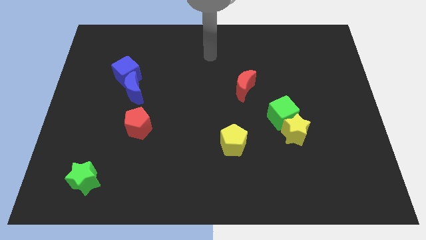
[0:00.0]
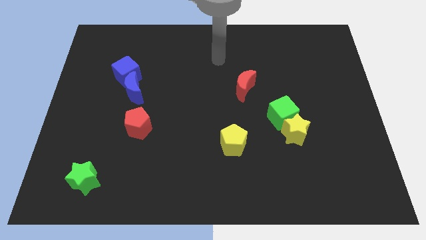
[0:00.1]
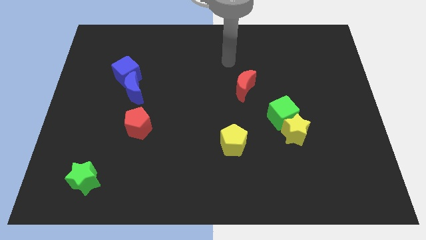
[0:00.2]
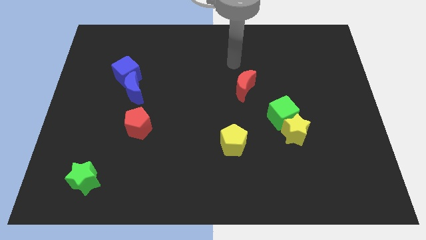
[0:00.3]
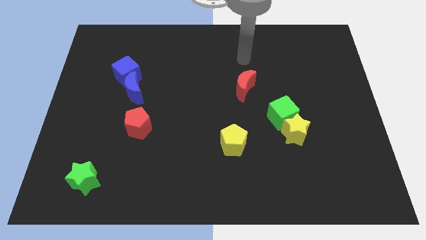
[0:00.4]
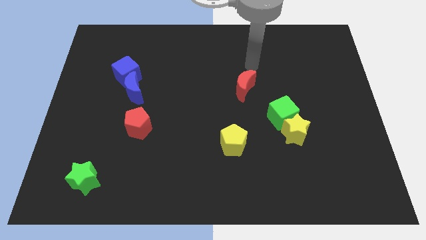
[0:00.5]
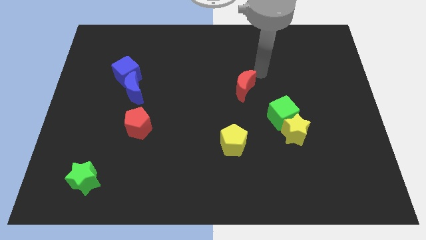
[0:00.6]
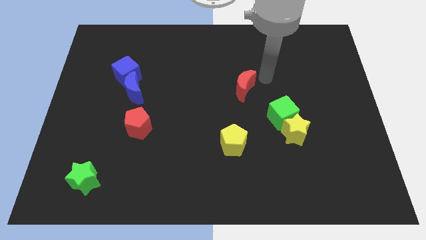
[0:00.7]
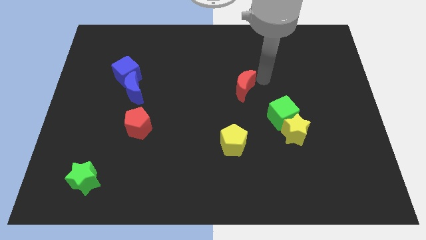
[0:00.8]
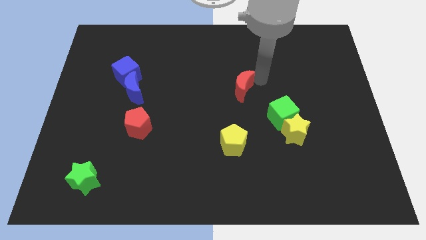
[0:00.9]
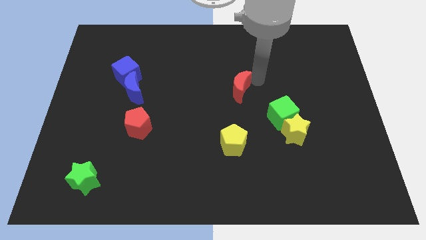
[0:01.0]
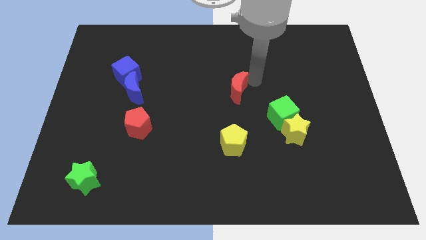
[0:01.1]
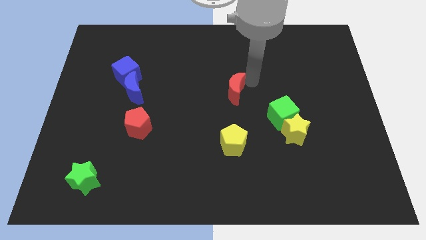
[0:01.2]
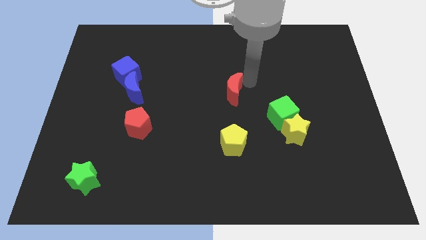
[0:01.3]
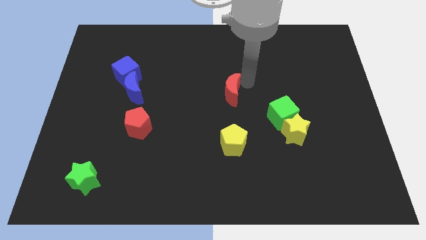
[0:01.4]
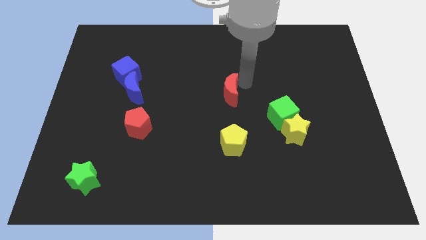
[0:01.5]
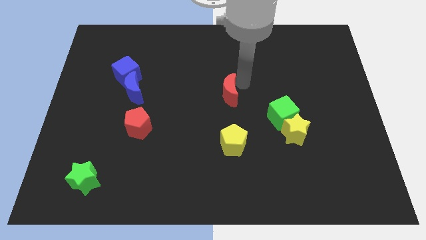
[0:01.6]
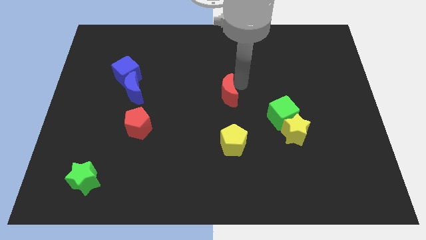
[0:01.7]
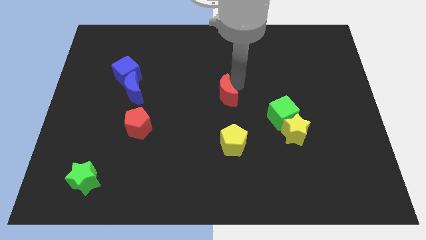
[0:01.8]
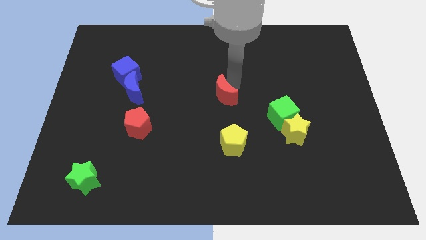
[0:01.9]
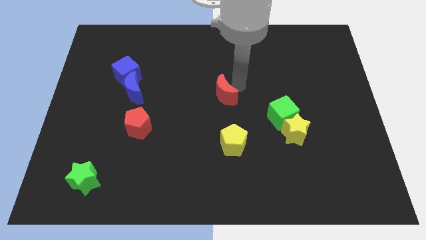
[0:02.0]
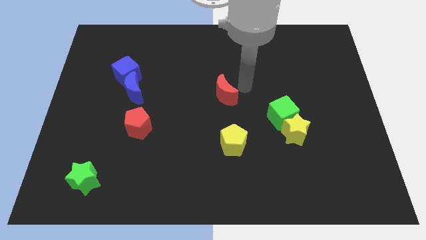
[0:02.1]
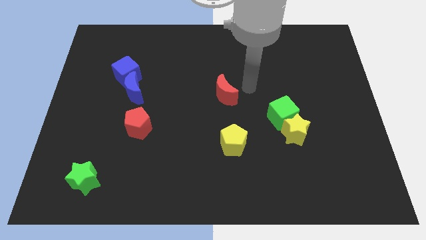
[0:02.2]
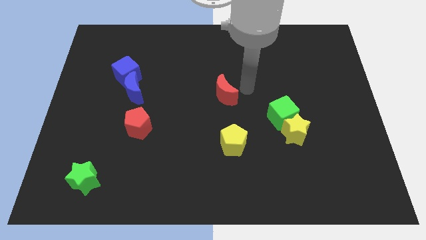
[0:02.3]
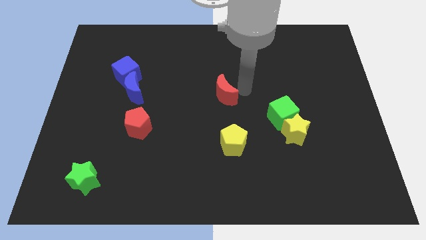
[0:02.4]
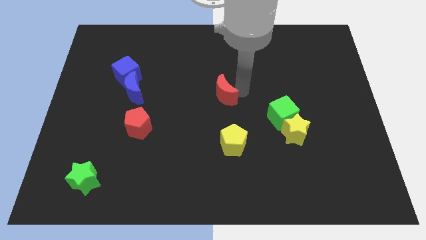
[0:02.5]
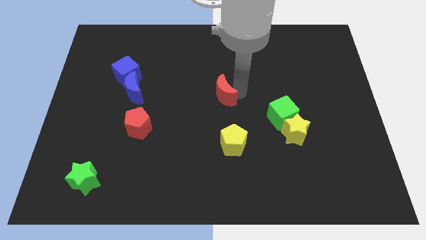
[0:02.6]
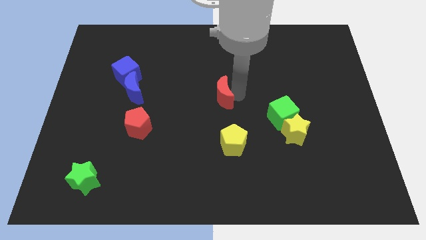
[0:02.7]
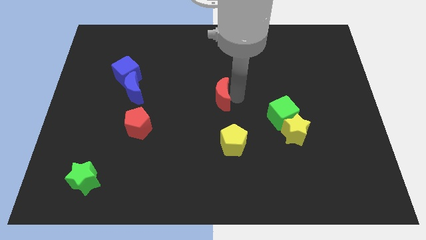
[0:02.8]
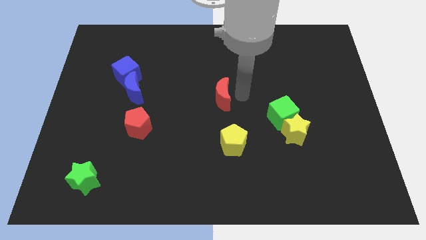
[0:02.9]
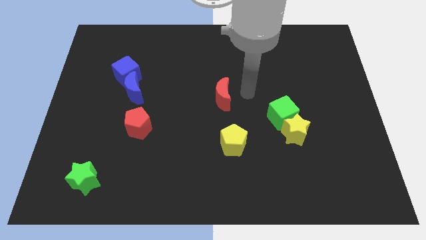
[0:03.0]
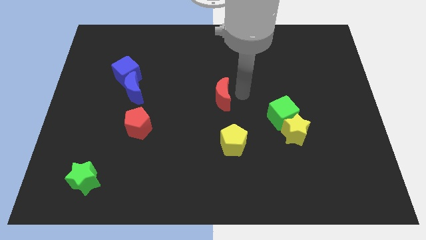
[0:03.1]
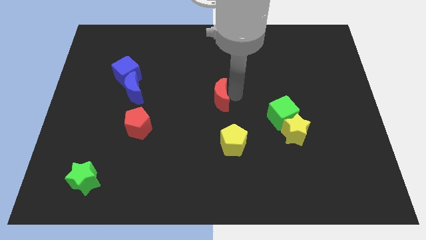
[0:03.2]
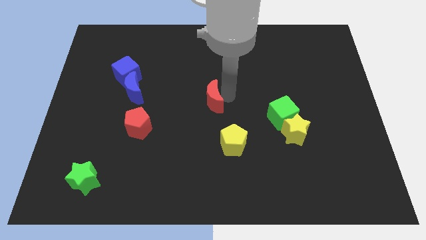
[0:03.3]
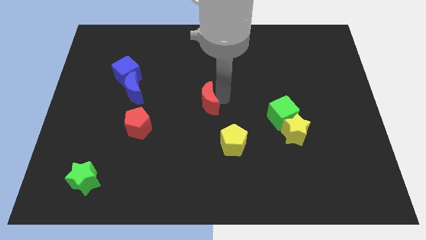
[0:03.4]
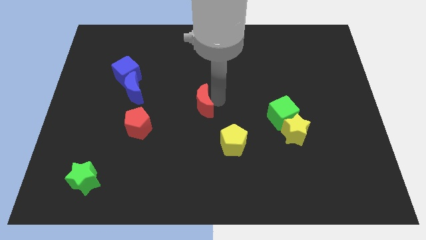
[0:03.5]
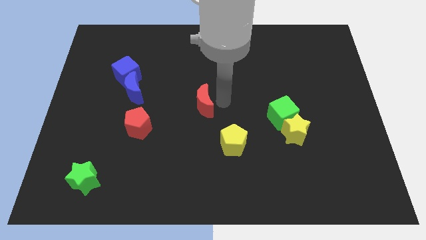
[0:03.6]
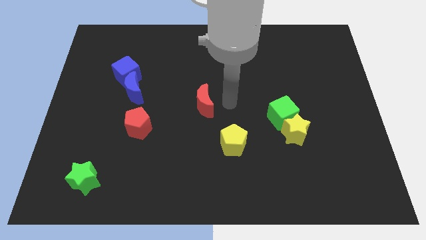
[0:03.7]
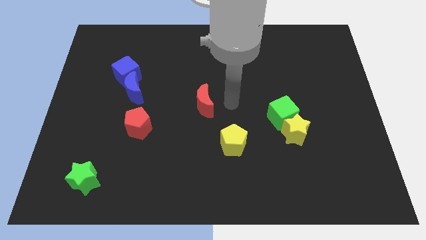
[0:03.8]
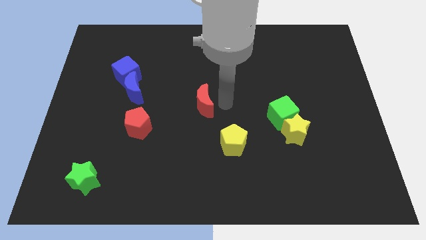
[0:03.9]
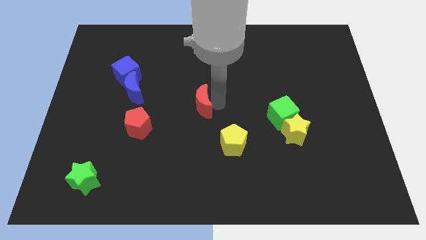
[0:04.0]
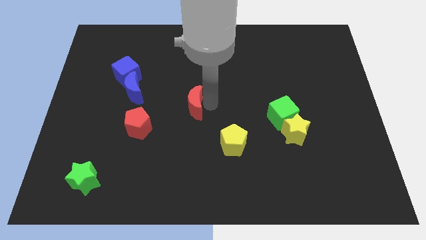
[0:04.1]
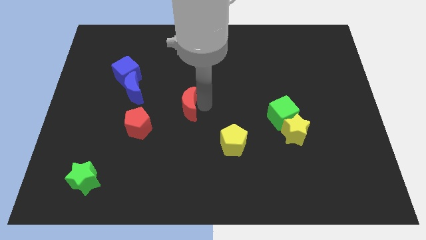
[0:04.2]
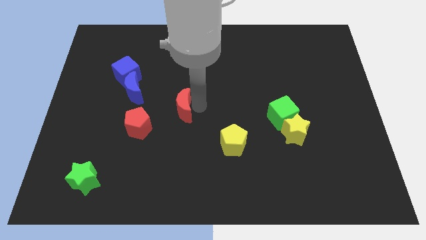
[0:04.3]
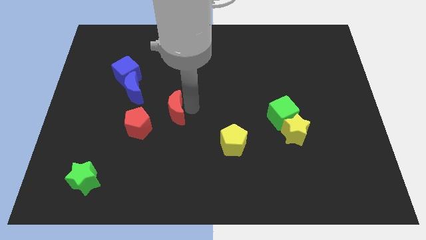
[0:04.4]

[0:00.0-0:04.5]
put the red moon to the bottom right of the blue moon

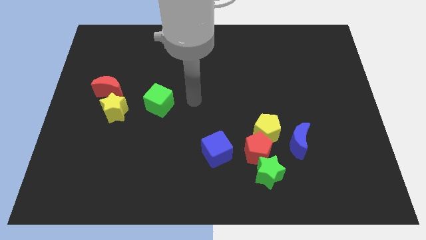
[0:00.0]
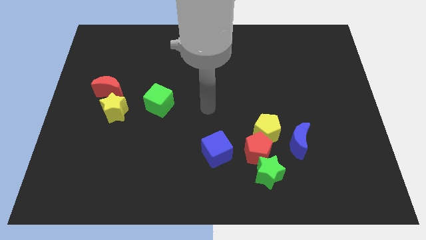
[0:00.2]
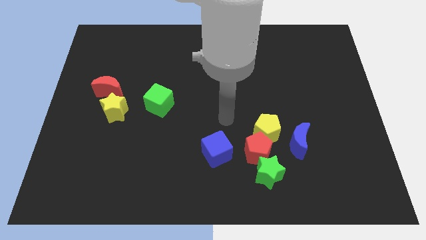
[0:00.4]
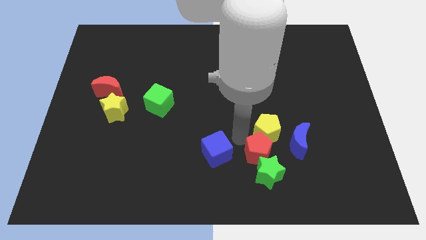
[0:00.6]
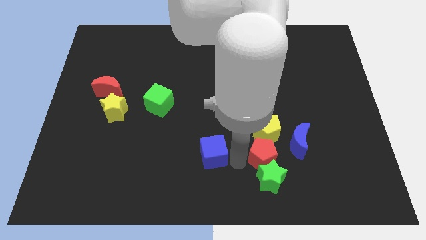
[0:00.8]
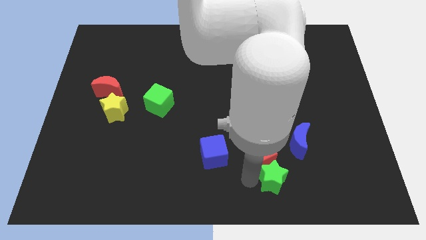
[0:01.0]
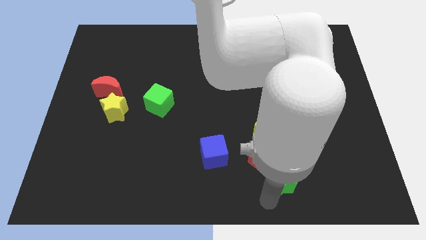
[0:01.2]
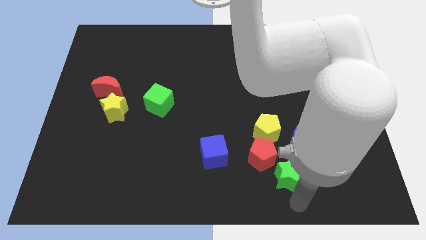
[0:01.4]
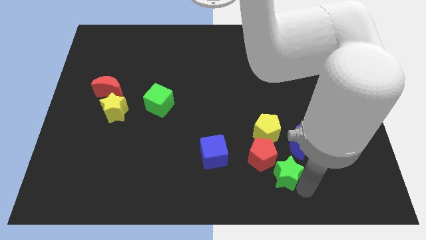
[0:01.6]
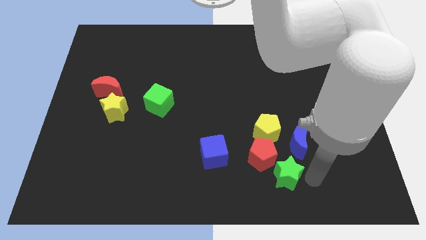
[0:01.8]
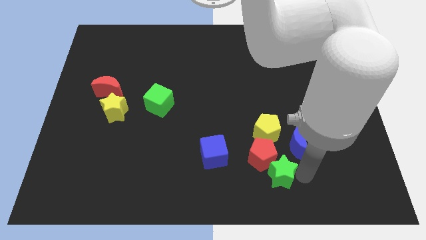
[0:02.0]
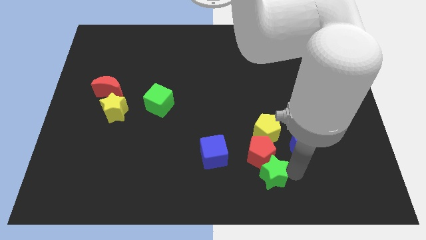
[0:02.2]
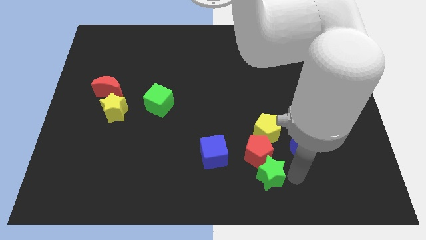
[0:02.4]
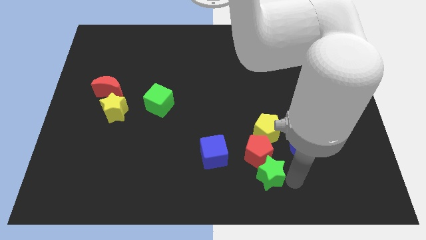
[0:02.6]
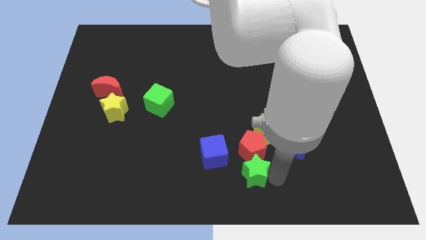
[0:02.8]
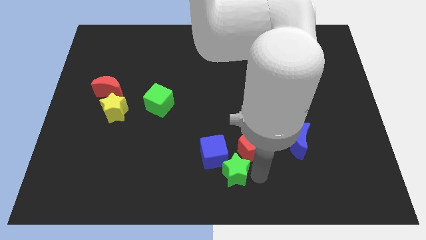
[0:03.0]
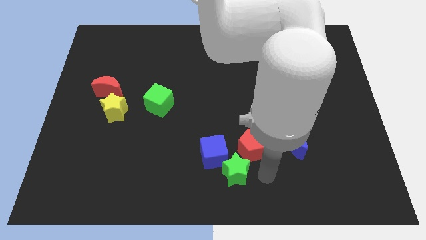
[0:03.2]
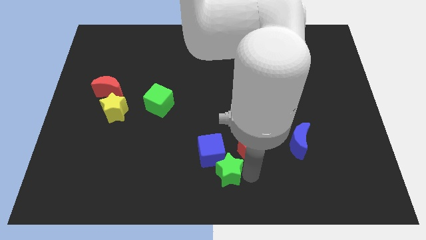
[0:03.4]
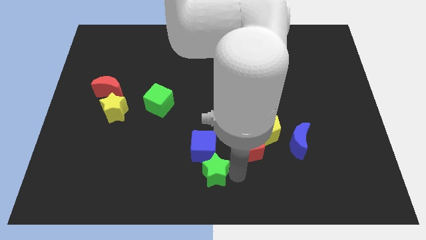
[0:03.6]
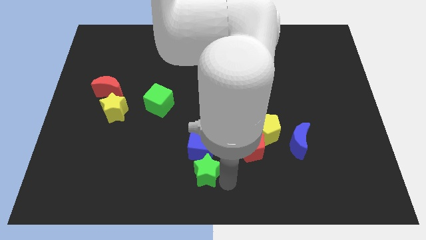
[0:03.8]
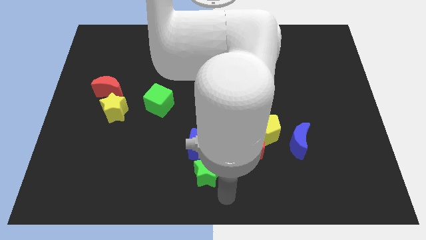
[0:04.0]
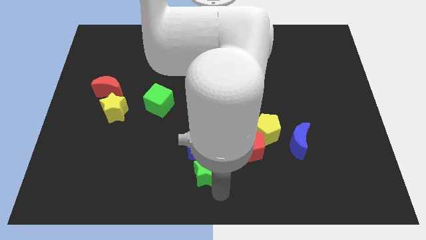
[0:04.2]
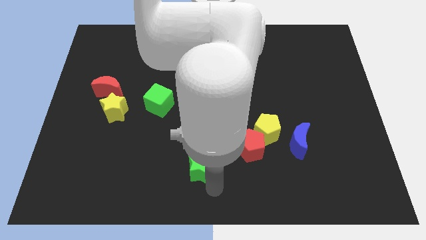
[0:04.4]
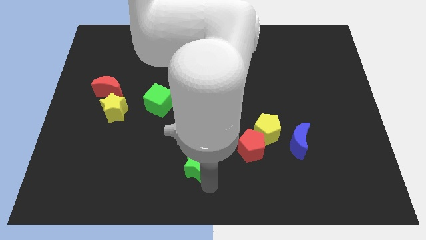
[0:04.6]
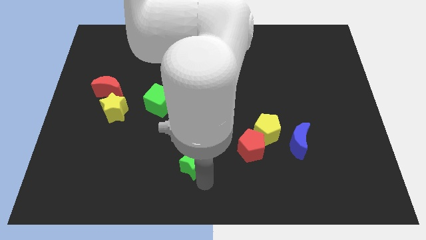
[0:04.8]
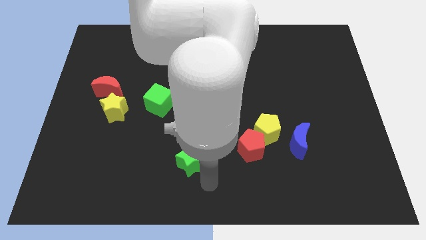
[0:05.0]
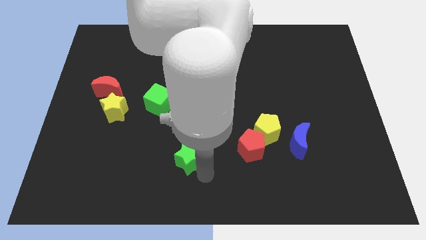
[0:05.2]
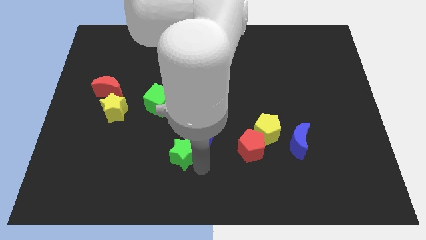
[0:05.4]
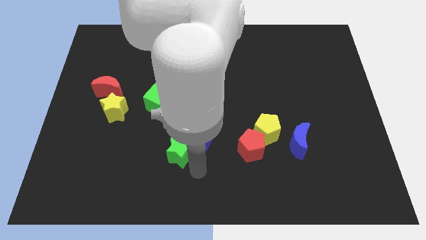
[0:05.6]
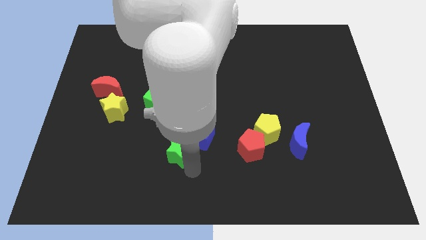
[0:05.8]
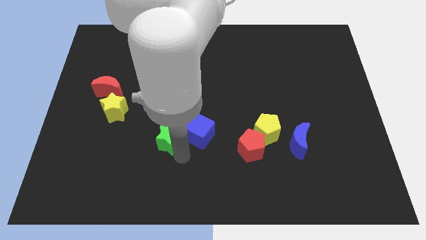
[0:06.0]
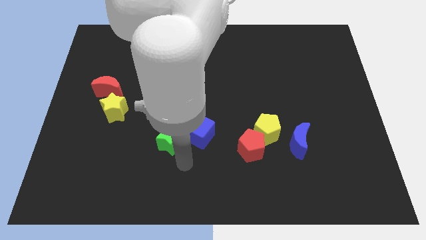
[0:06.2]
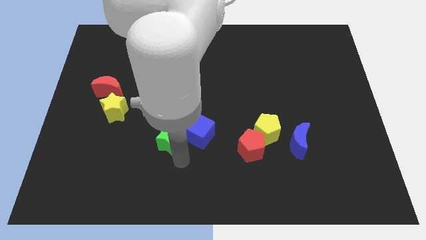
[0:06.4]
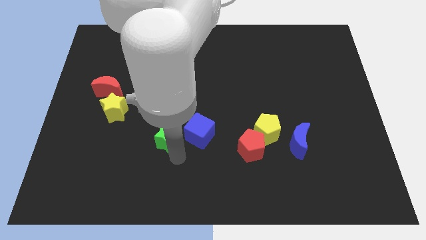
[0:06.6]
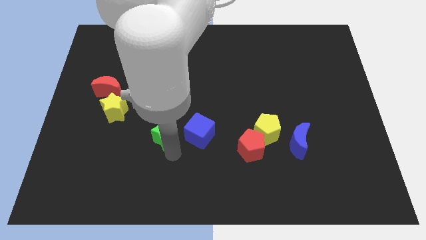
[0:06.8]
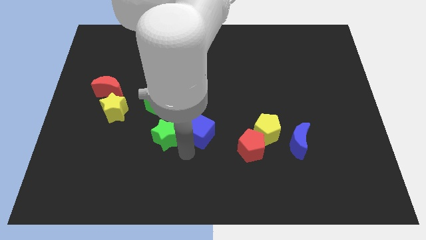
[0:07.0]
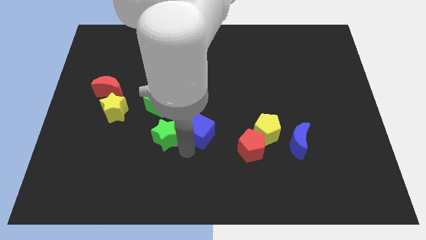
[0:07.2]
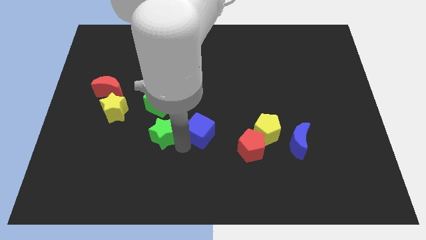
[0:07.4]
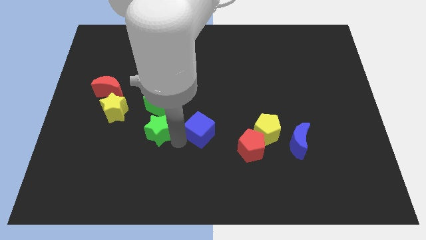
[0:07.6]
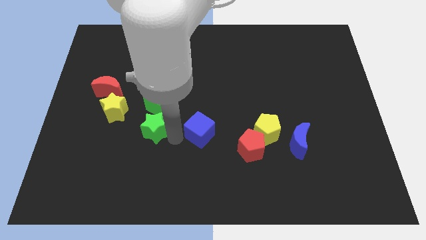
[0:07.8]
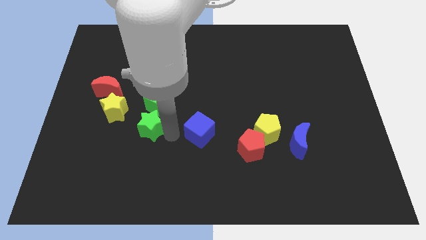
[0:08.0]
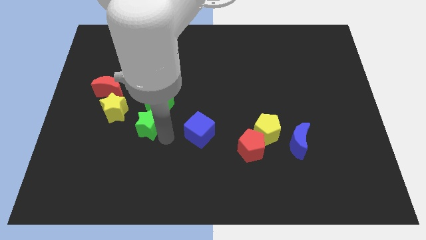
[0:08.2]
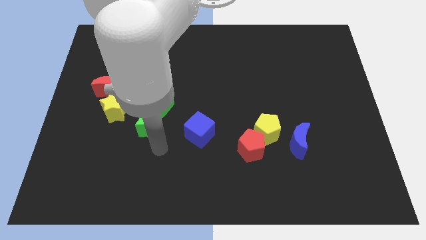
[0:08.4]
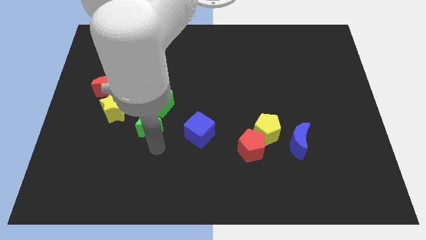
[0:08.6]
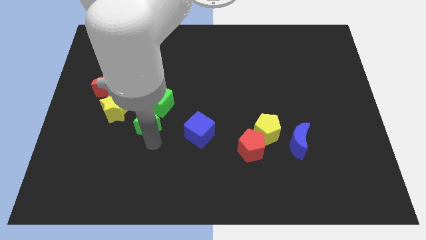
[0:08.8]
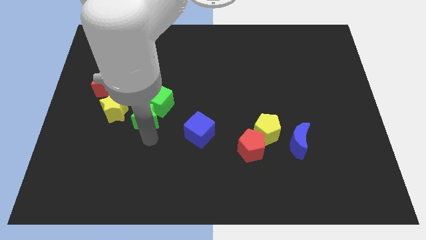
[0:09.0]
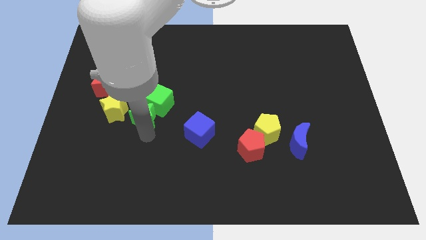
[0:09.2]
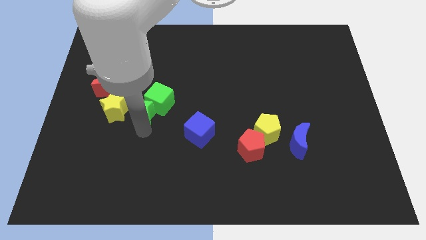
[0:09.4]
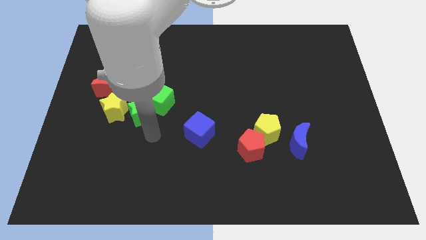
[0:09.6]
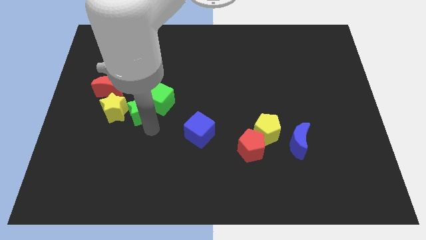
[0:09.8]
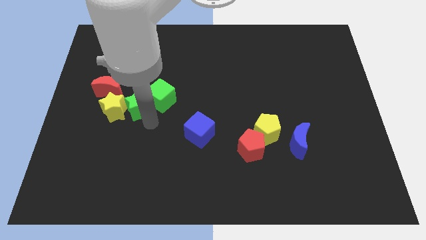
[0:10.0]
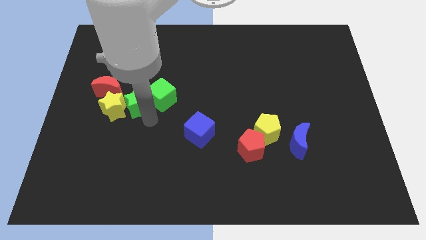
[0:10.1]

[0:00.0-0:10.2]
slide the green star to the right of the red moon
